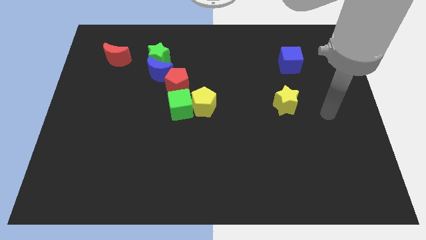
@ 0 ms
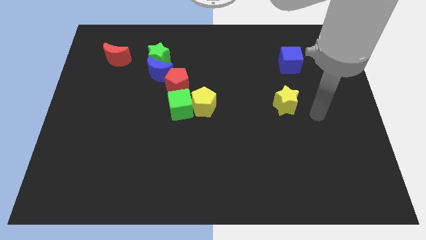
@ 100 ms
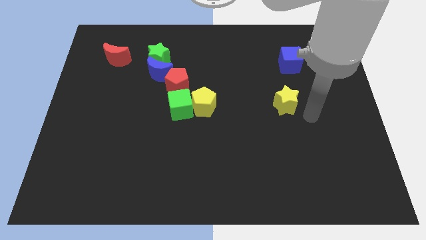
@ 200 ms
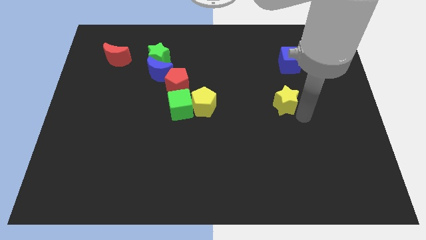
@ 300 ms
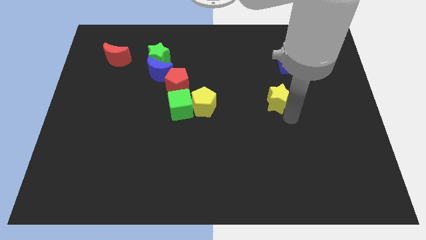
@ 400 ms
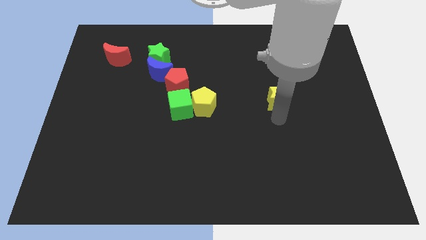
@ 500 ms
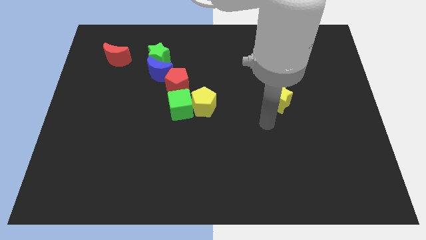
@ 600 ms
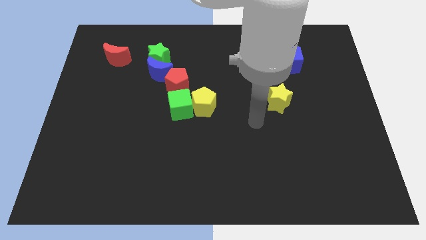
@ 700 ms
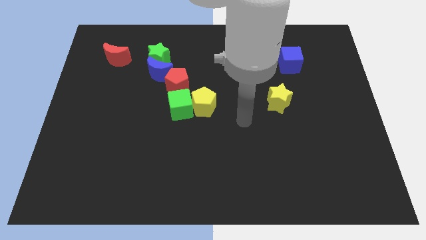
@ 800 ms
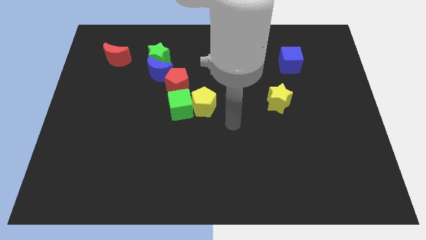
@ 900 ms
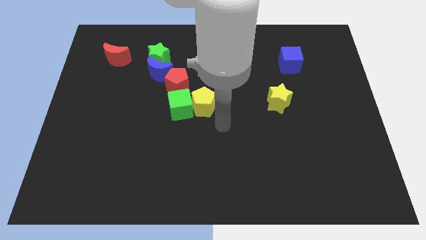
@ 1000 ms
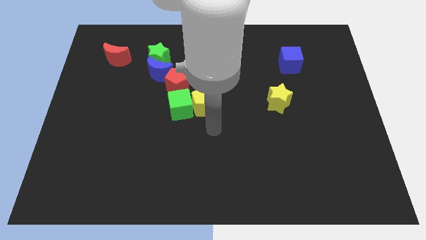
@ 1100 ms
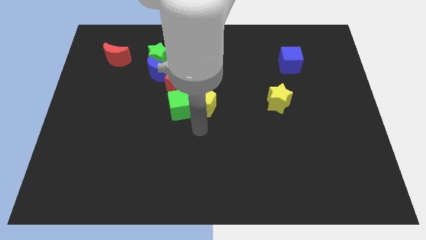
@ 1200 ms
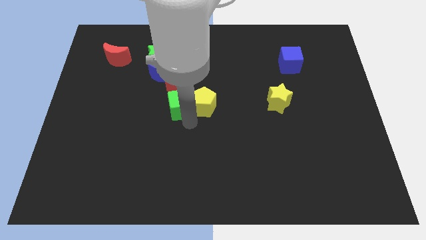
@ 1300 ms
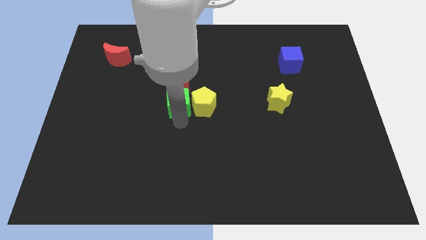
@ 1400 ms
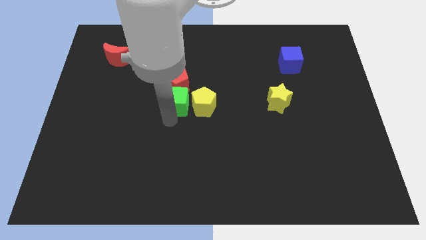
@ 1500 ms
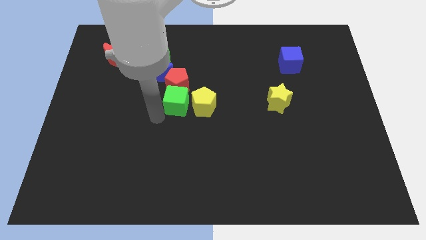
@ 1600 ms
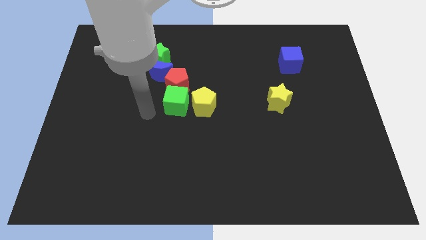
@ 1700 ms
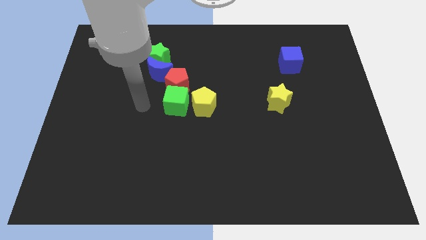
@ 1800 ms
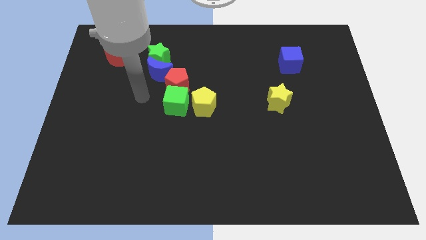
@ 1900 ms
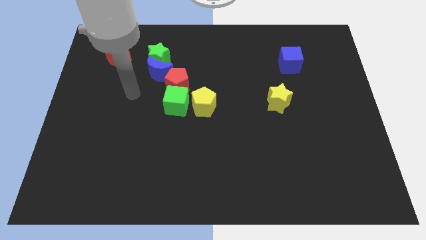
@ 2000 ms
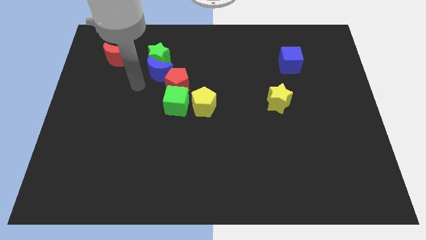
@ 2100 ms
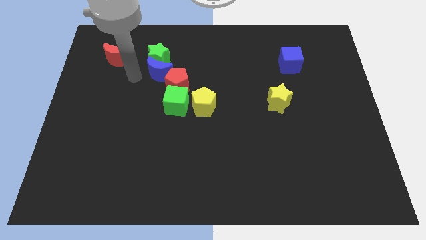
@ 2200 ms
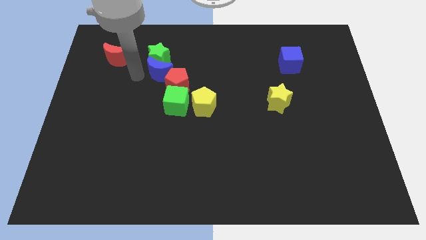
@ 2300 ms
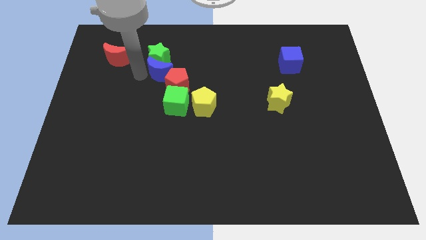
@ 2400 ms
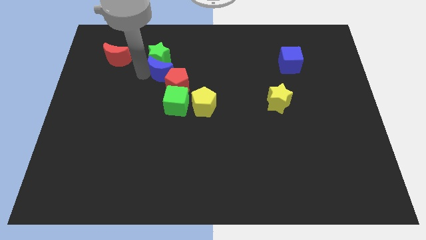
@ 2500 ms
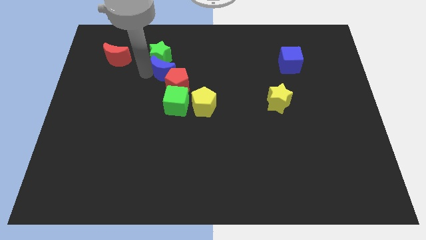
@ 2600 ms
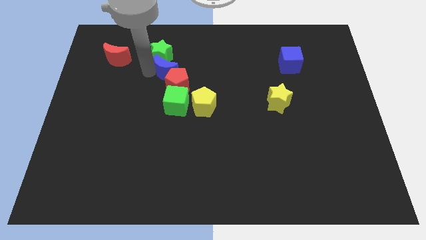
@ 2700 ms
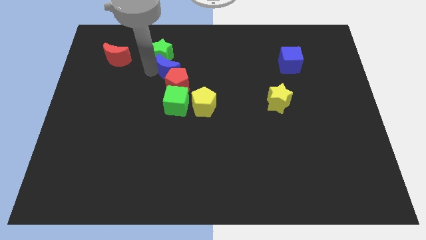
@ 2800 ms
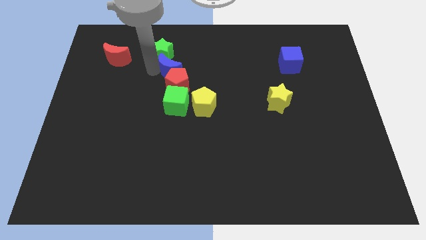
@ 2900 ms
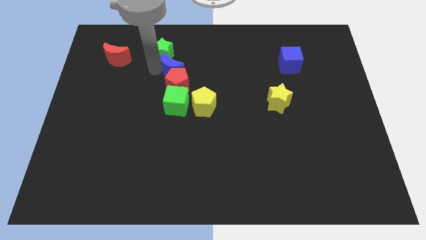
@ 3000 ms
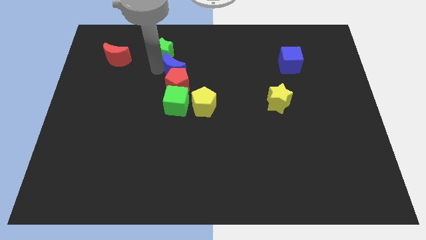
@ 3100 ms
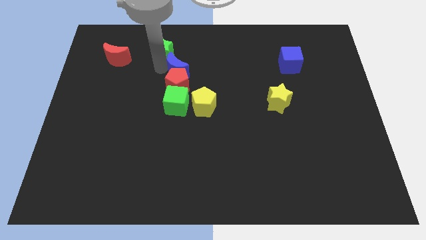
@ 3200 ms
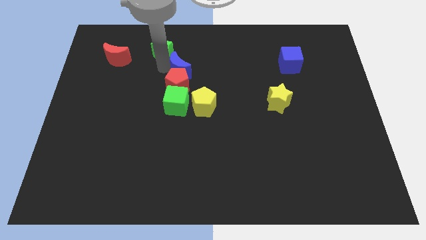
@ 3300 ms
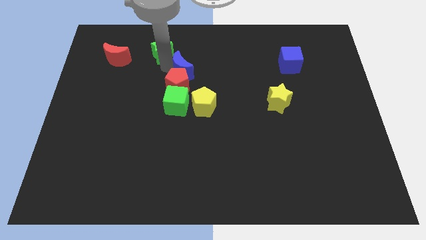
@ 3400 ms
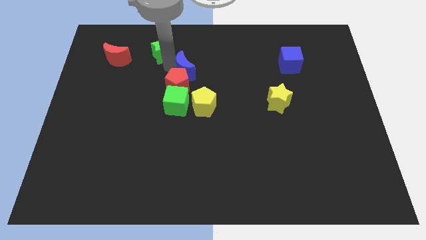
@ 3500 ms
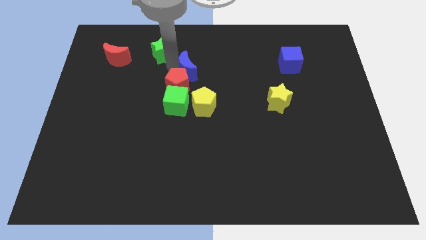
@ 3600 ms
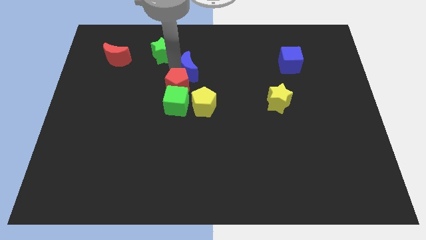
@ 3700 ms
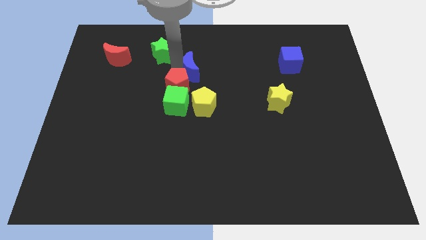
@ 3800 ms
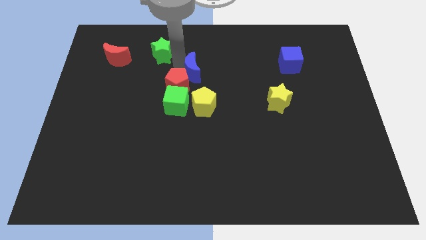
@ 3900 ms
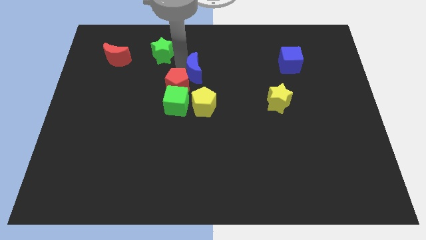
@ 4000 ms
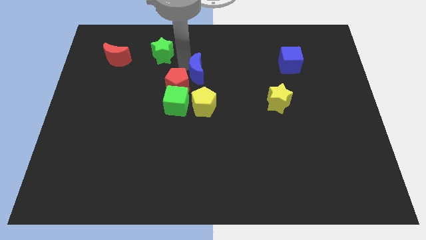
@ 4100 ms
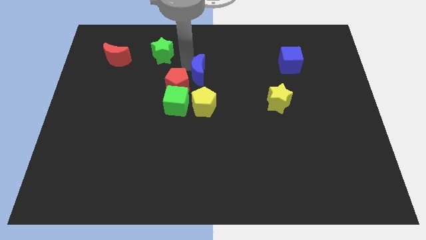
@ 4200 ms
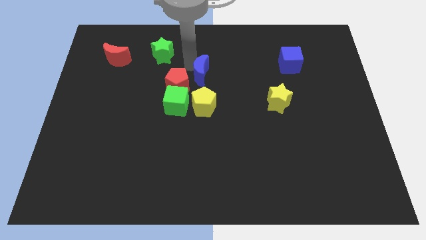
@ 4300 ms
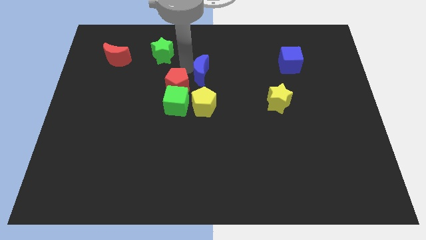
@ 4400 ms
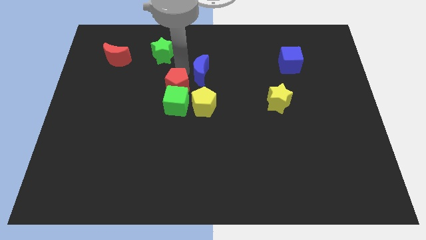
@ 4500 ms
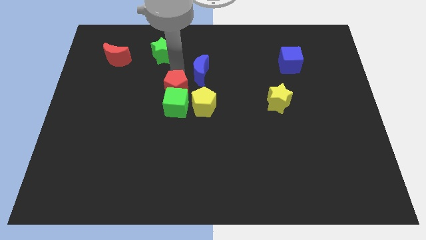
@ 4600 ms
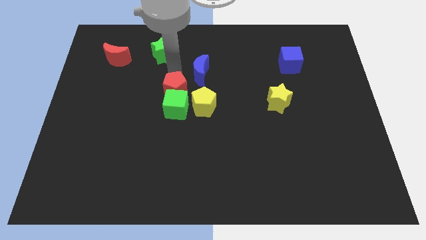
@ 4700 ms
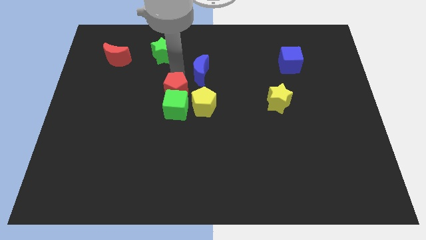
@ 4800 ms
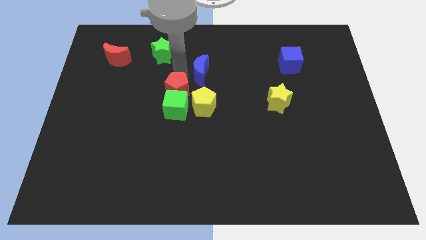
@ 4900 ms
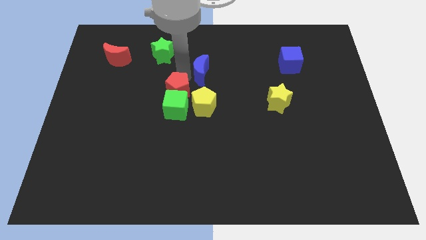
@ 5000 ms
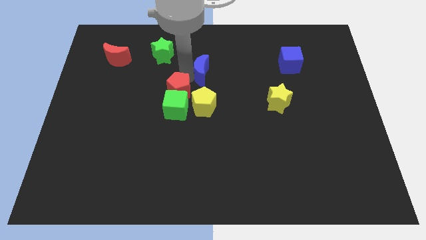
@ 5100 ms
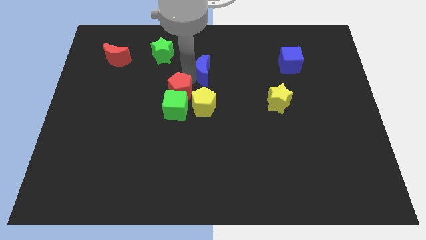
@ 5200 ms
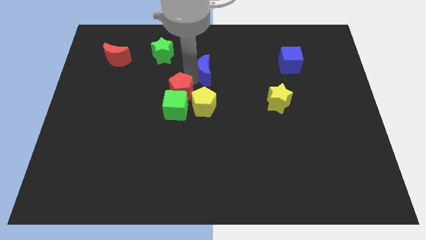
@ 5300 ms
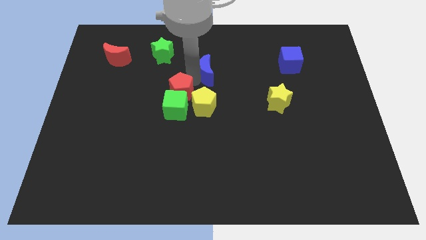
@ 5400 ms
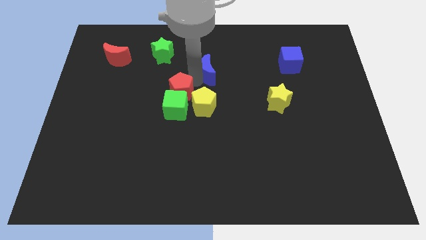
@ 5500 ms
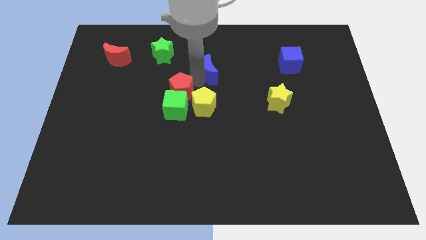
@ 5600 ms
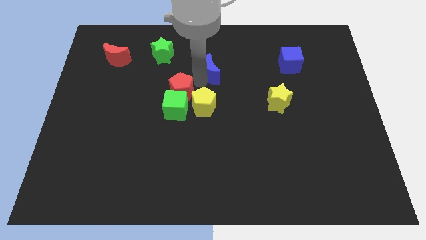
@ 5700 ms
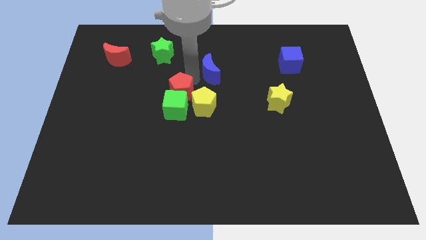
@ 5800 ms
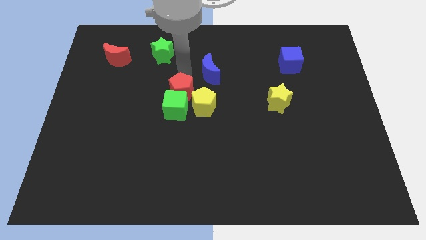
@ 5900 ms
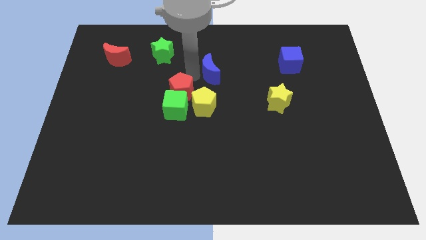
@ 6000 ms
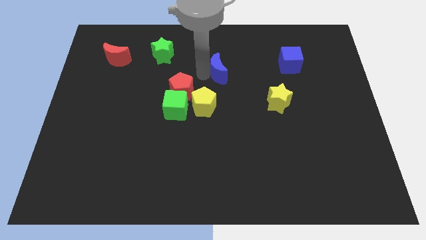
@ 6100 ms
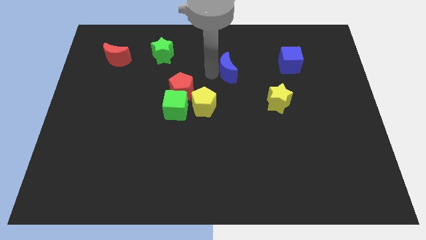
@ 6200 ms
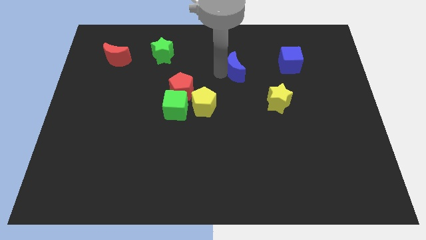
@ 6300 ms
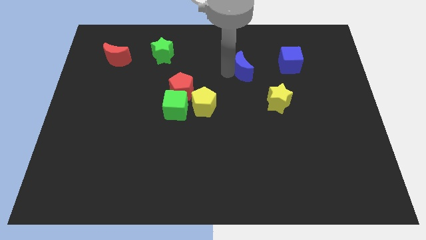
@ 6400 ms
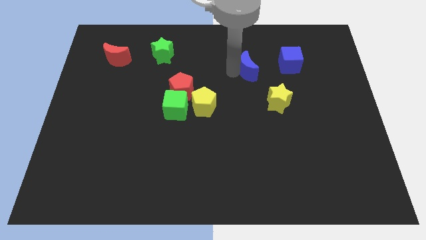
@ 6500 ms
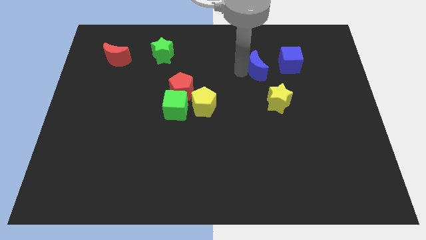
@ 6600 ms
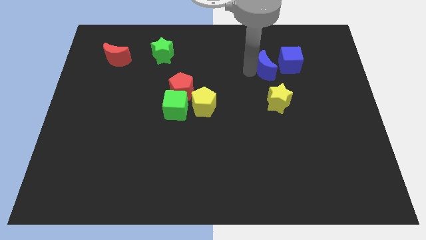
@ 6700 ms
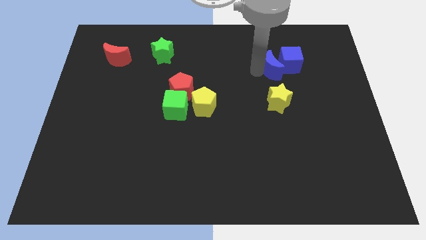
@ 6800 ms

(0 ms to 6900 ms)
push the blue moon to the blue cube

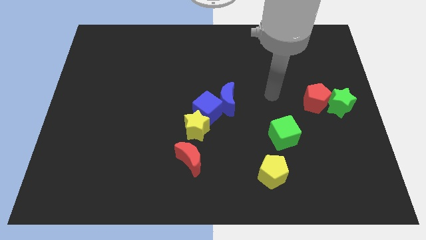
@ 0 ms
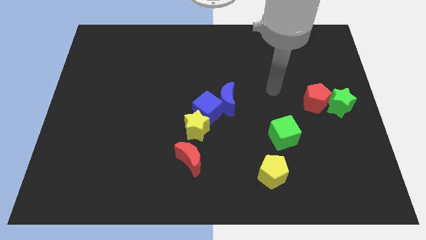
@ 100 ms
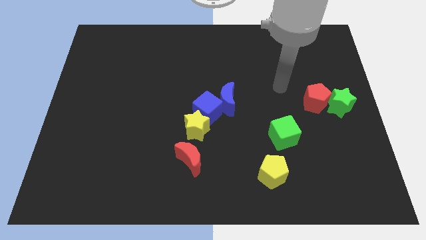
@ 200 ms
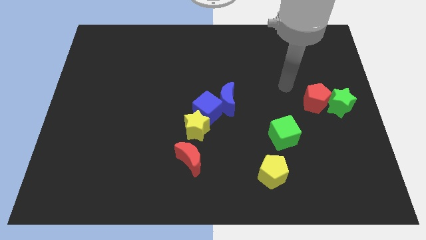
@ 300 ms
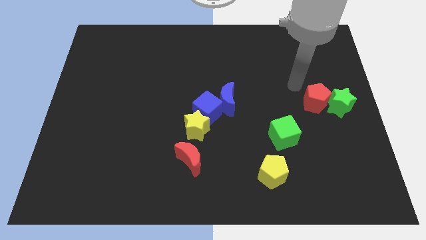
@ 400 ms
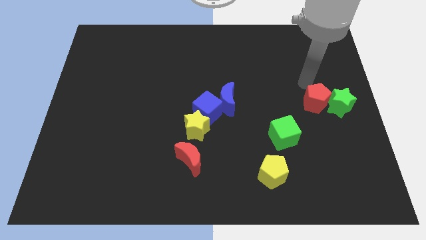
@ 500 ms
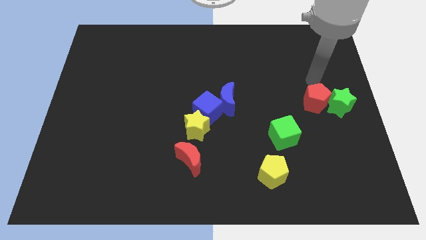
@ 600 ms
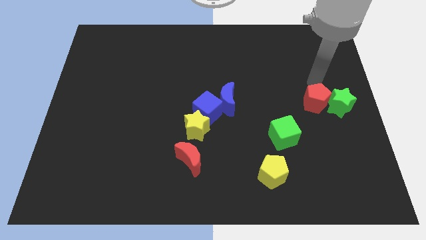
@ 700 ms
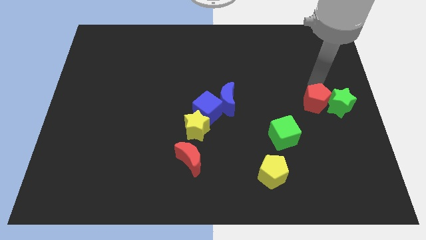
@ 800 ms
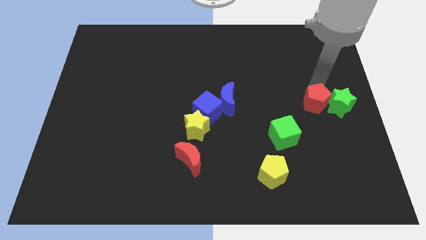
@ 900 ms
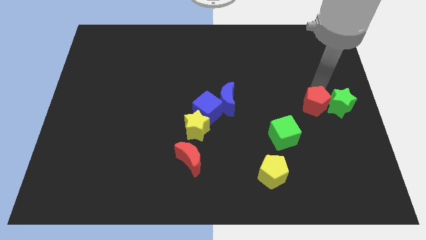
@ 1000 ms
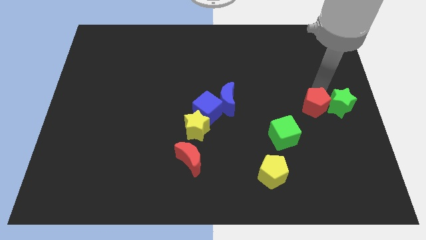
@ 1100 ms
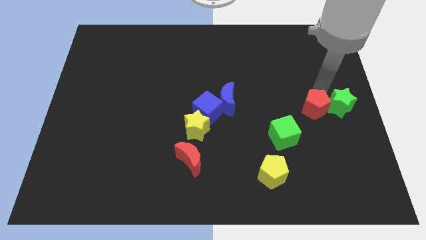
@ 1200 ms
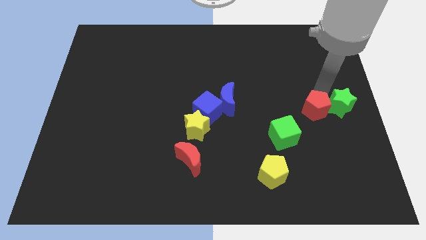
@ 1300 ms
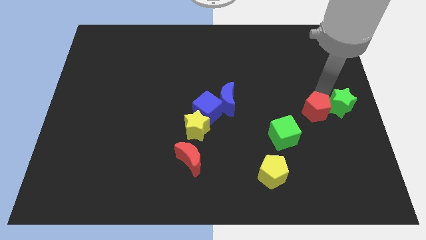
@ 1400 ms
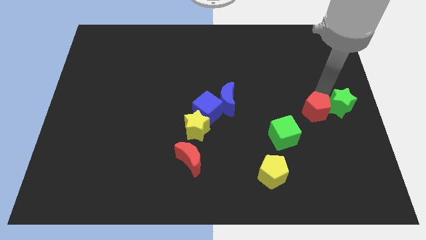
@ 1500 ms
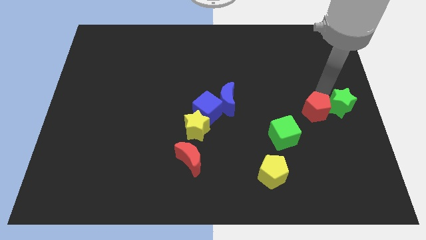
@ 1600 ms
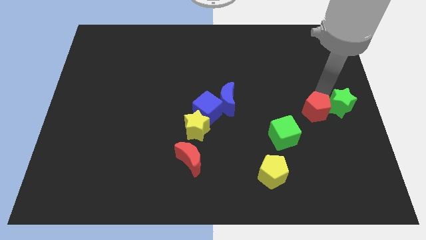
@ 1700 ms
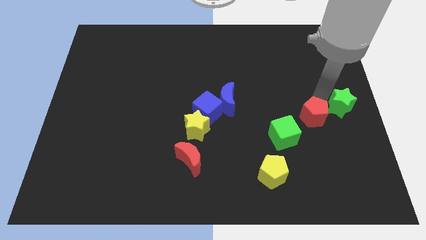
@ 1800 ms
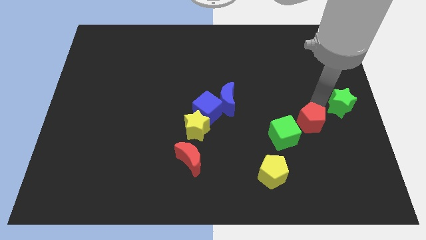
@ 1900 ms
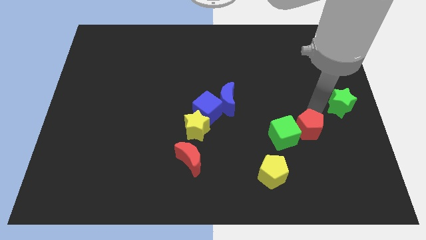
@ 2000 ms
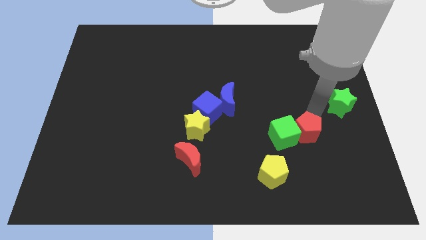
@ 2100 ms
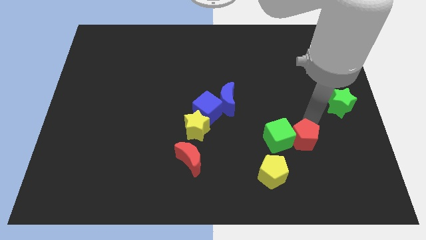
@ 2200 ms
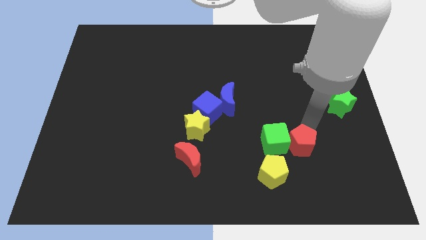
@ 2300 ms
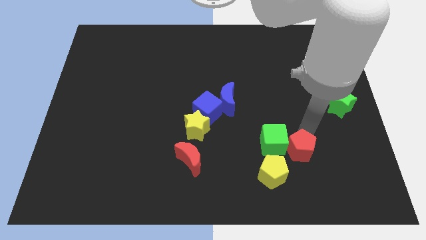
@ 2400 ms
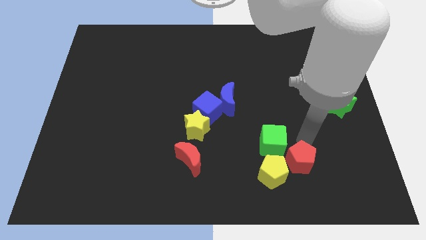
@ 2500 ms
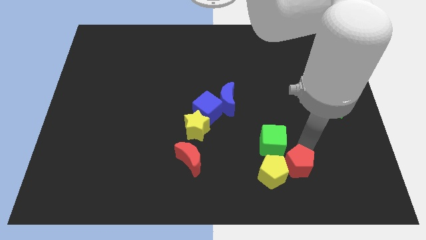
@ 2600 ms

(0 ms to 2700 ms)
put the red pentagon next to the yellow pentagon
